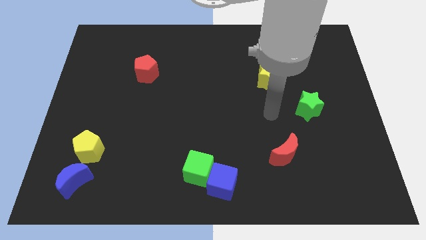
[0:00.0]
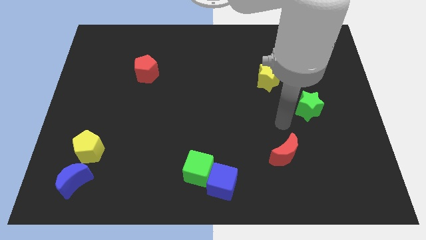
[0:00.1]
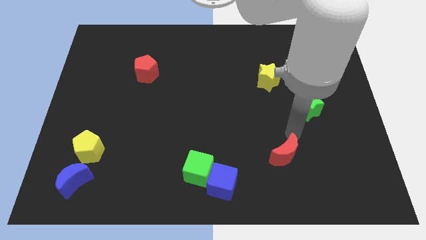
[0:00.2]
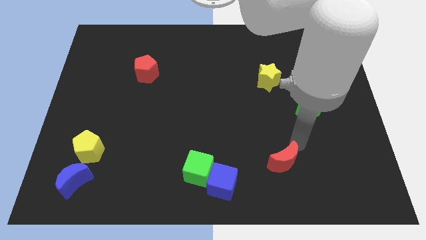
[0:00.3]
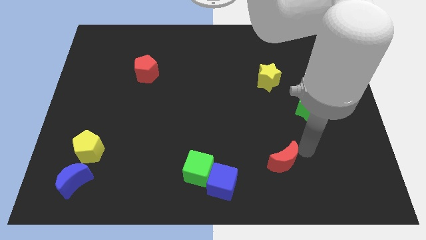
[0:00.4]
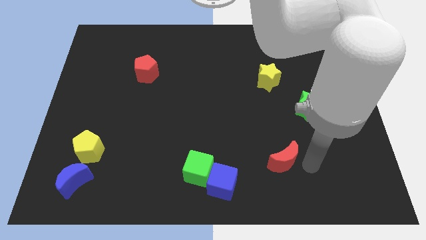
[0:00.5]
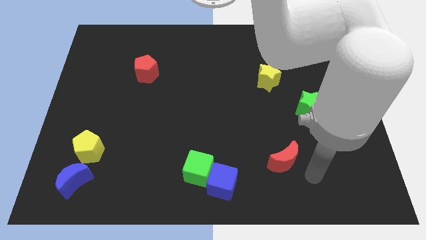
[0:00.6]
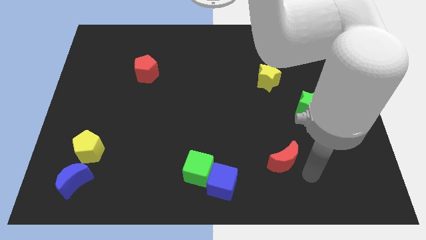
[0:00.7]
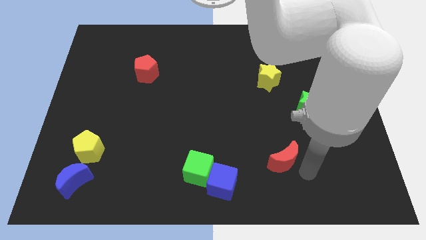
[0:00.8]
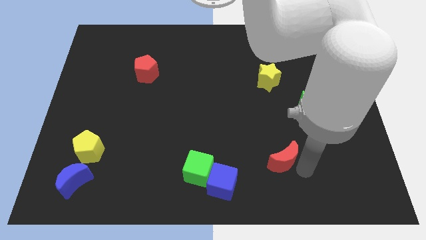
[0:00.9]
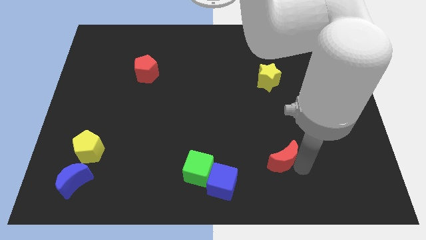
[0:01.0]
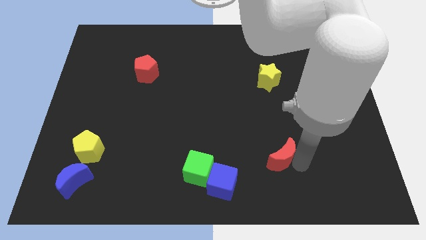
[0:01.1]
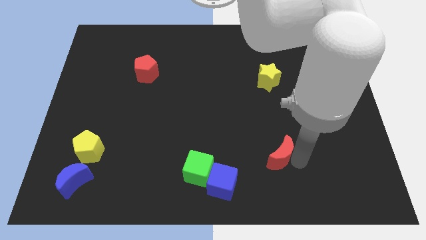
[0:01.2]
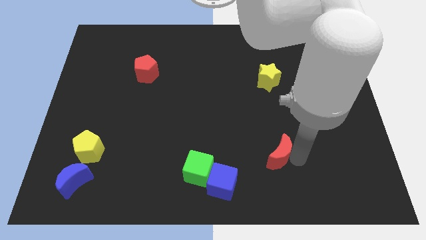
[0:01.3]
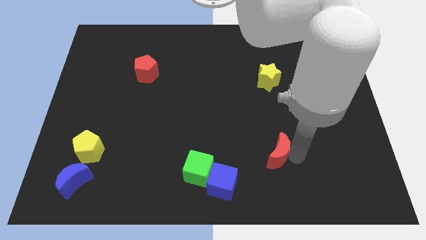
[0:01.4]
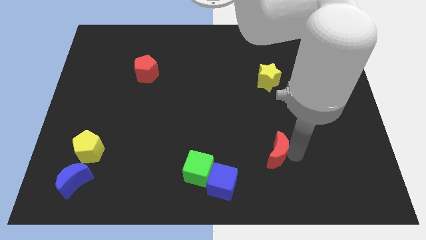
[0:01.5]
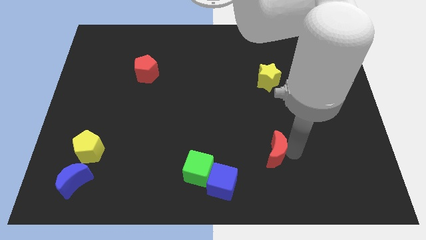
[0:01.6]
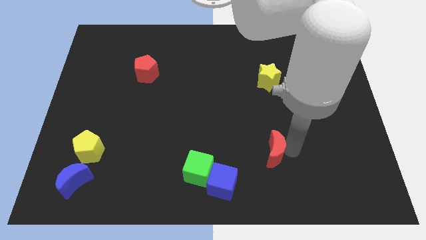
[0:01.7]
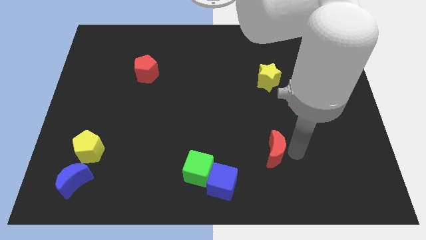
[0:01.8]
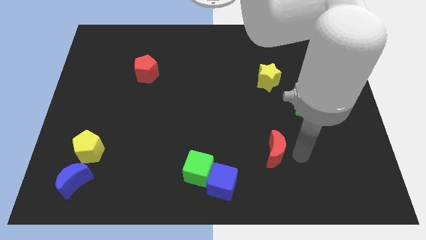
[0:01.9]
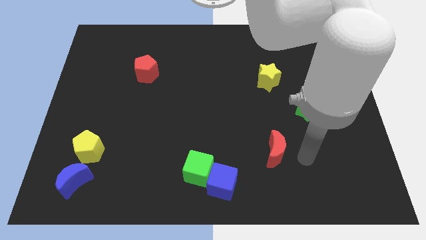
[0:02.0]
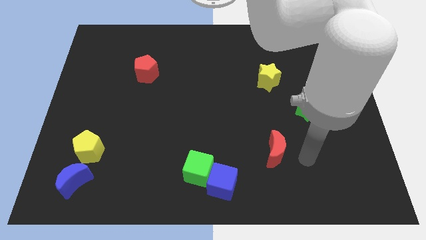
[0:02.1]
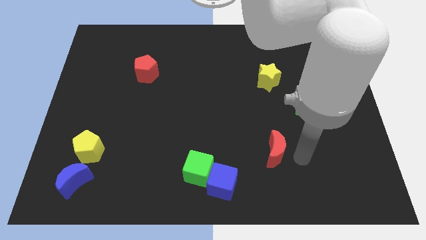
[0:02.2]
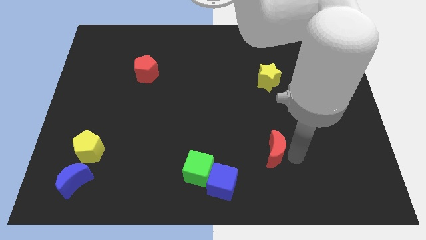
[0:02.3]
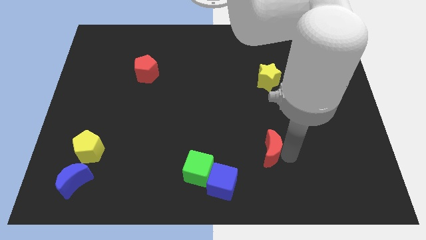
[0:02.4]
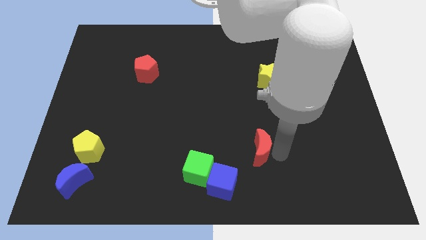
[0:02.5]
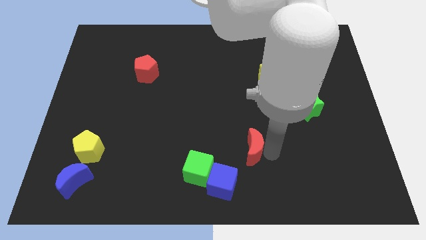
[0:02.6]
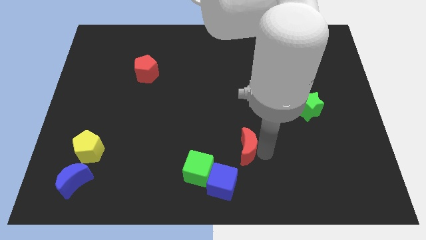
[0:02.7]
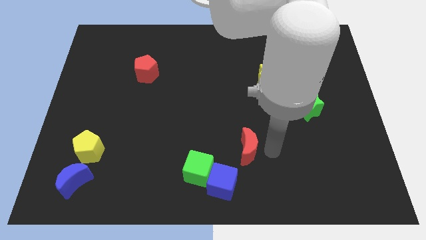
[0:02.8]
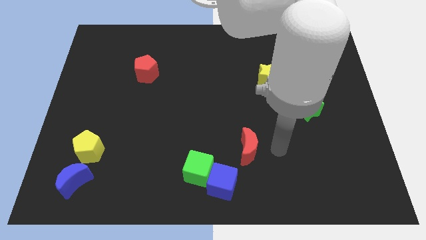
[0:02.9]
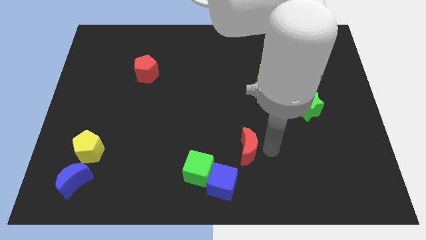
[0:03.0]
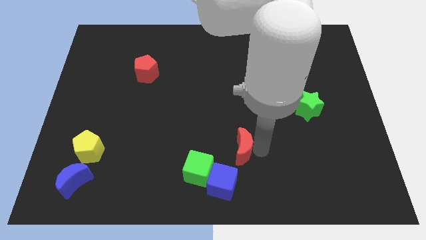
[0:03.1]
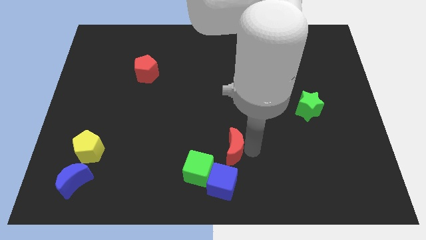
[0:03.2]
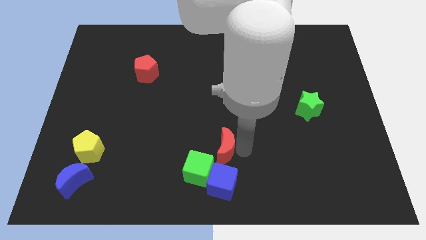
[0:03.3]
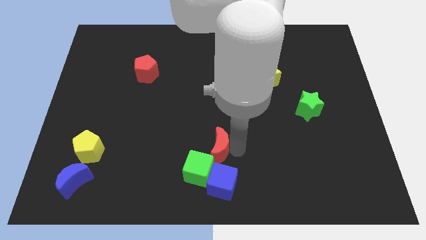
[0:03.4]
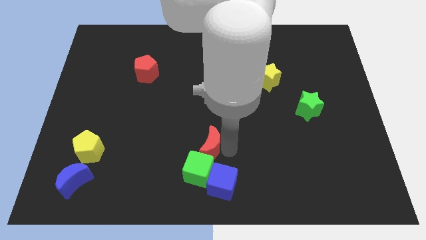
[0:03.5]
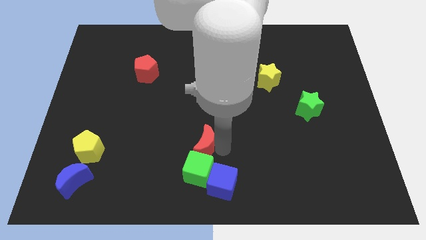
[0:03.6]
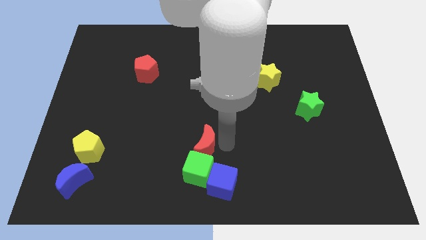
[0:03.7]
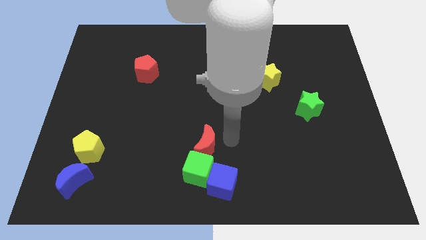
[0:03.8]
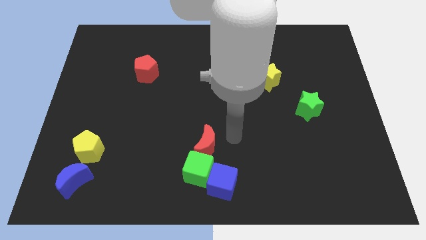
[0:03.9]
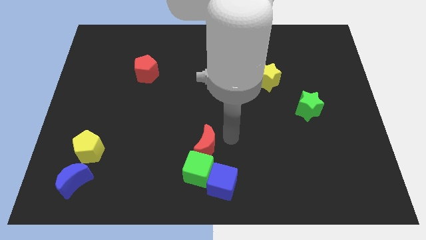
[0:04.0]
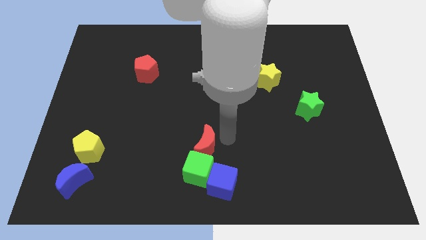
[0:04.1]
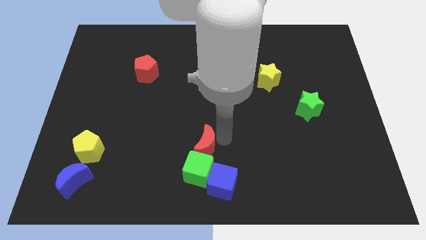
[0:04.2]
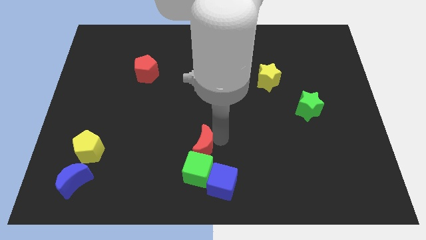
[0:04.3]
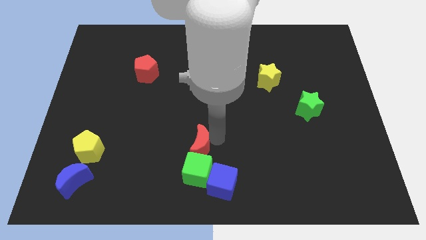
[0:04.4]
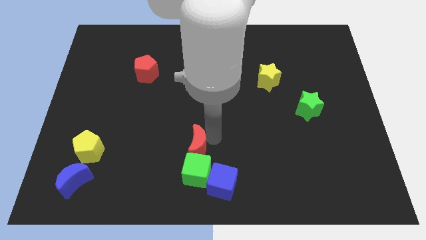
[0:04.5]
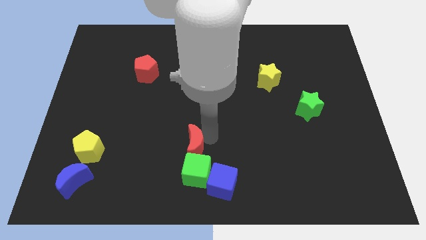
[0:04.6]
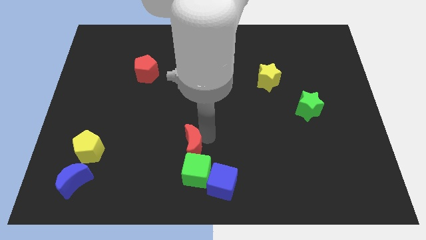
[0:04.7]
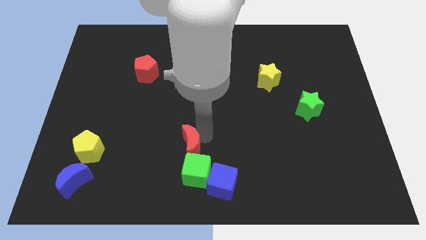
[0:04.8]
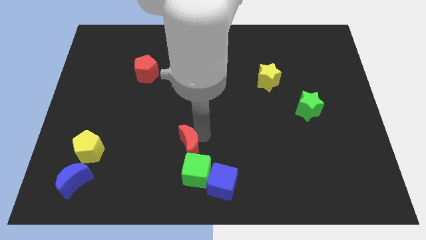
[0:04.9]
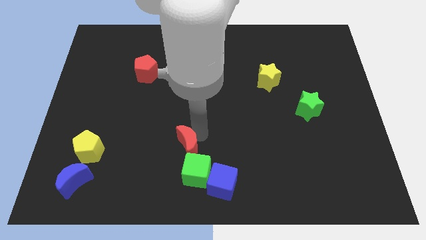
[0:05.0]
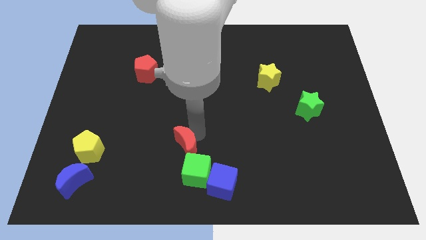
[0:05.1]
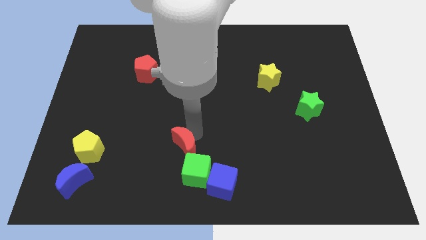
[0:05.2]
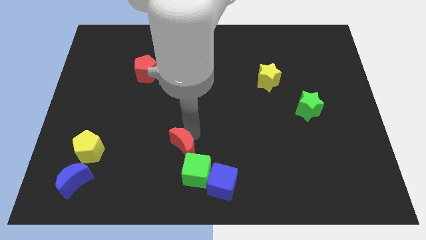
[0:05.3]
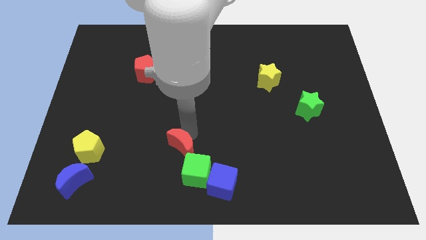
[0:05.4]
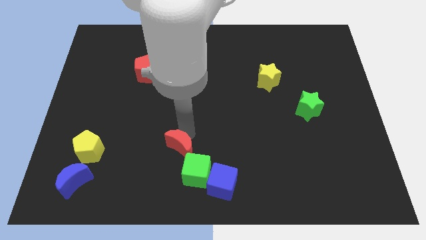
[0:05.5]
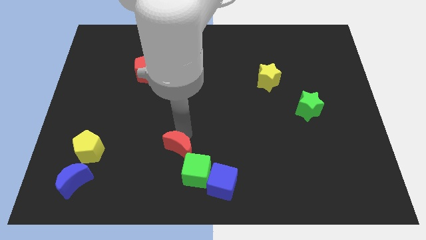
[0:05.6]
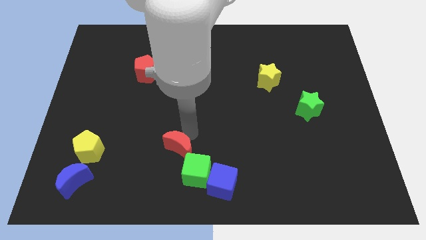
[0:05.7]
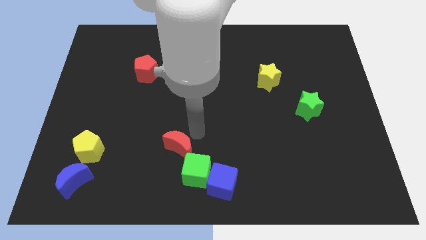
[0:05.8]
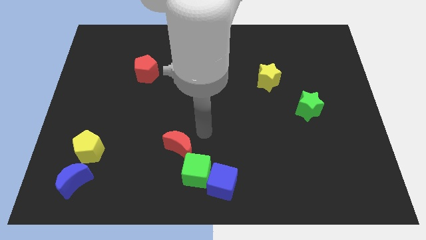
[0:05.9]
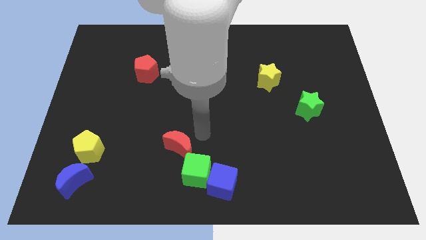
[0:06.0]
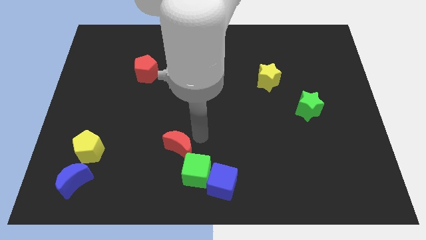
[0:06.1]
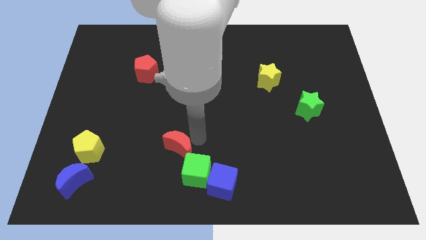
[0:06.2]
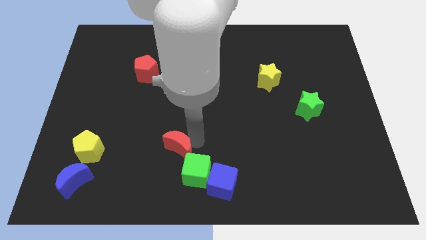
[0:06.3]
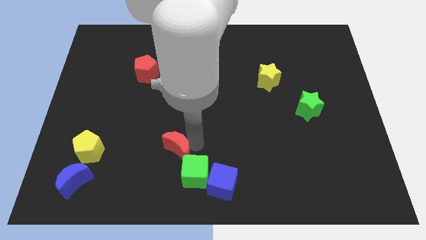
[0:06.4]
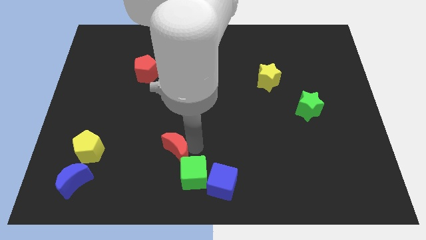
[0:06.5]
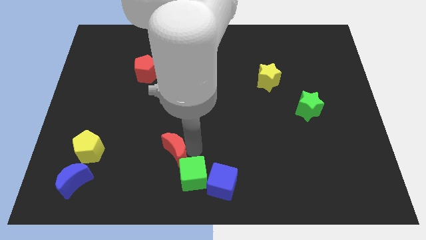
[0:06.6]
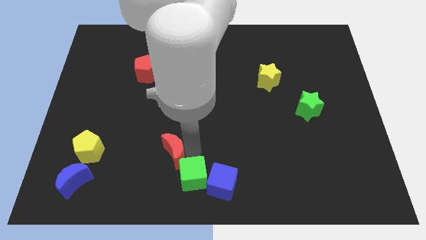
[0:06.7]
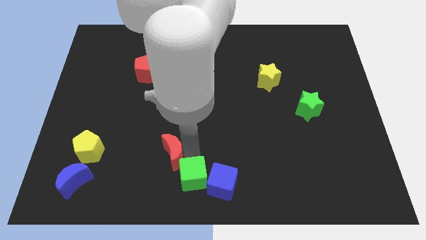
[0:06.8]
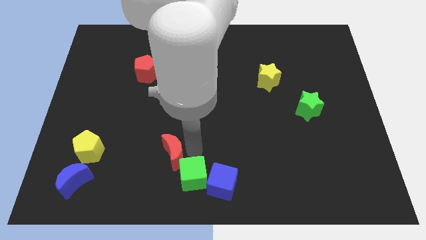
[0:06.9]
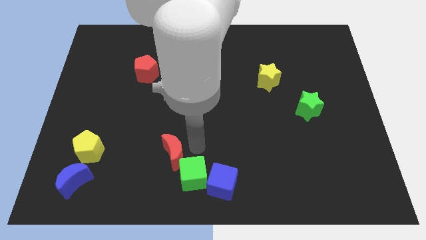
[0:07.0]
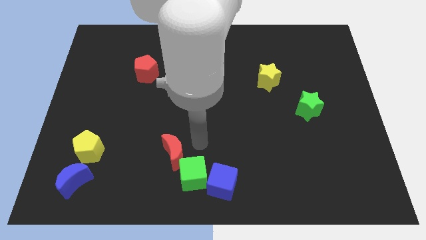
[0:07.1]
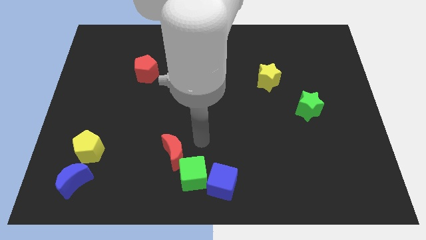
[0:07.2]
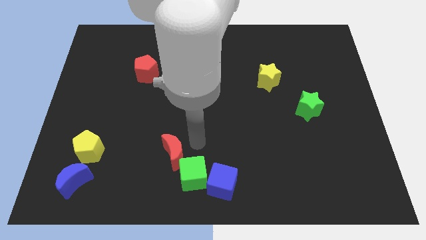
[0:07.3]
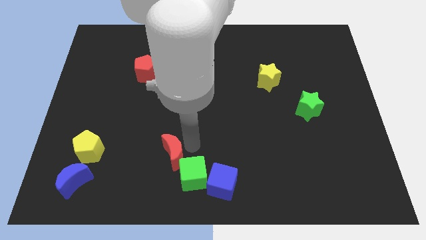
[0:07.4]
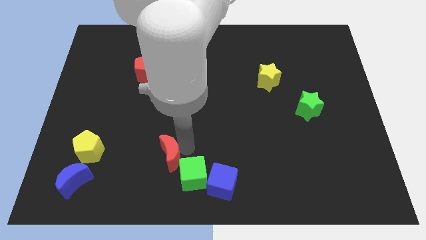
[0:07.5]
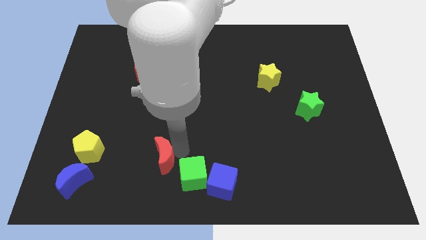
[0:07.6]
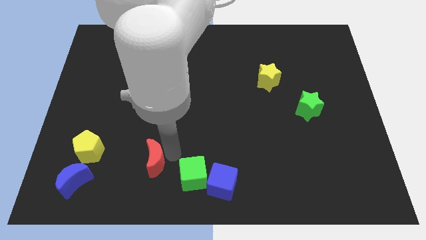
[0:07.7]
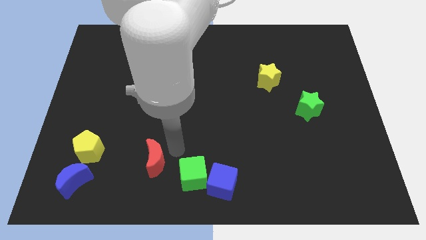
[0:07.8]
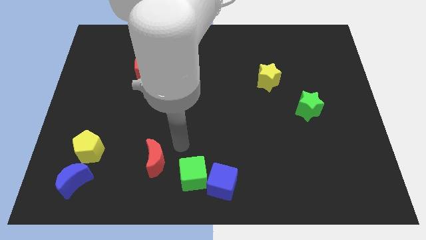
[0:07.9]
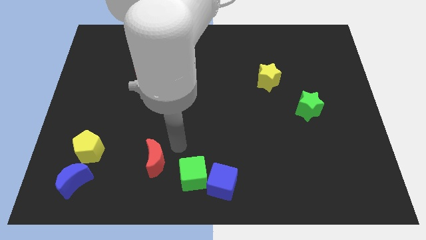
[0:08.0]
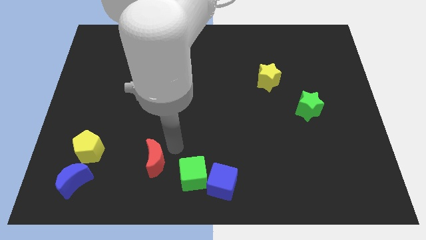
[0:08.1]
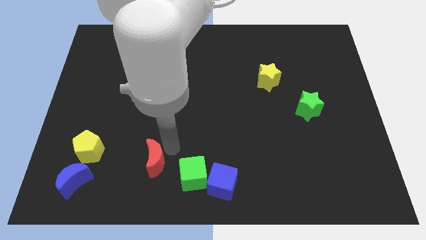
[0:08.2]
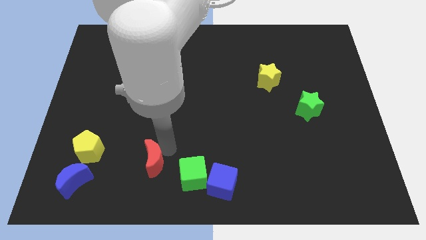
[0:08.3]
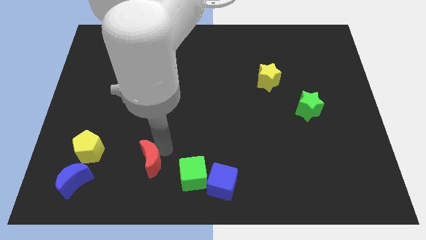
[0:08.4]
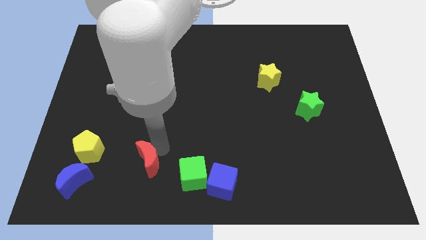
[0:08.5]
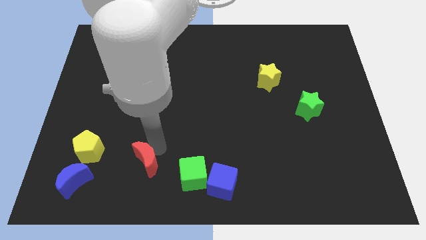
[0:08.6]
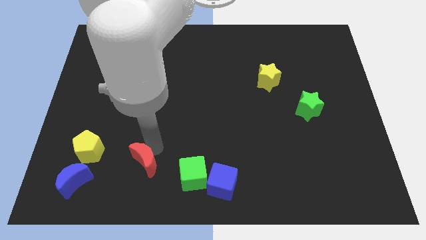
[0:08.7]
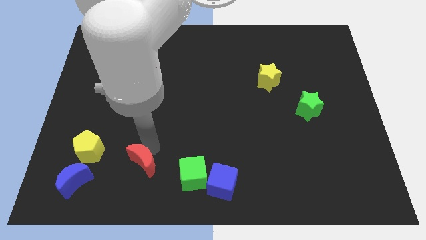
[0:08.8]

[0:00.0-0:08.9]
push the red moon to the right side of the blue moon
